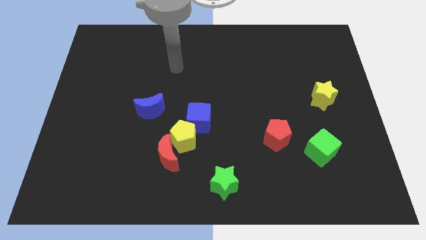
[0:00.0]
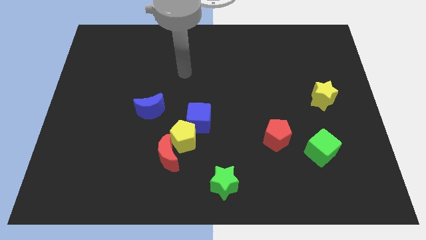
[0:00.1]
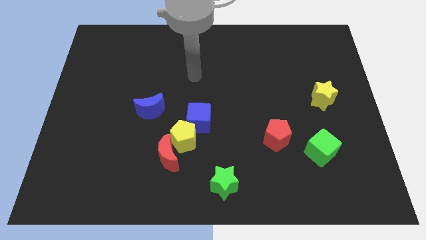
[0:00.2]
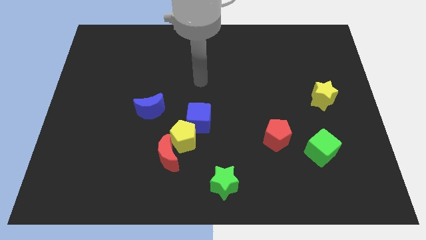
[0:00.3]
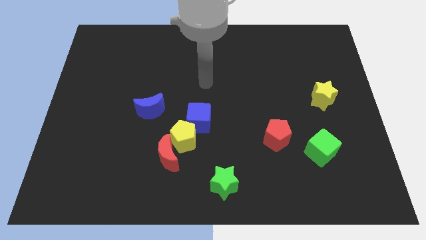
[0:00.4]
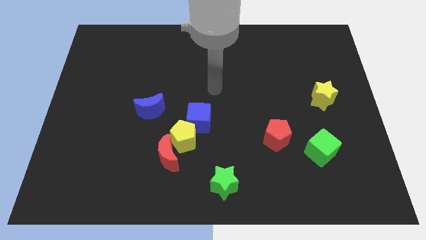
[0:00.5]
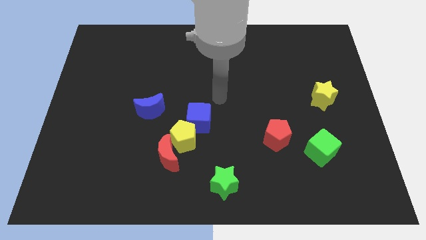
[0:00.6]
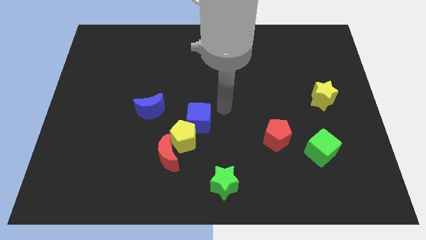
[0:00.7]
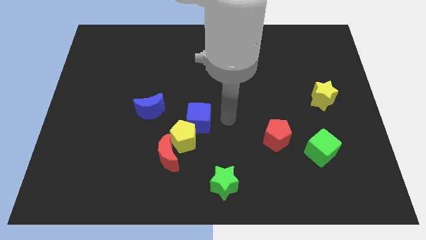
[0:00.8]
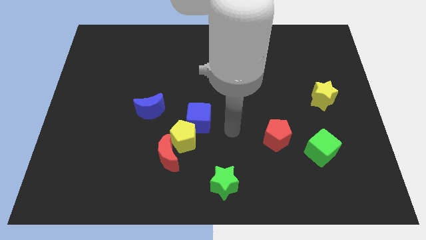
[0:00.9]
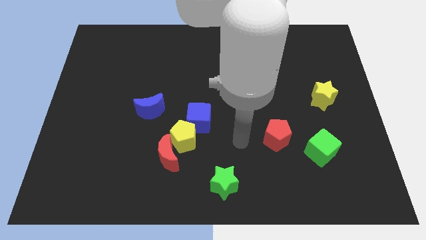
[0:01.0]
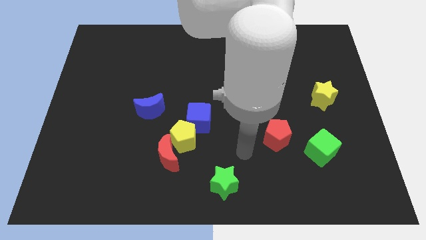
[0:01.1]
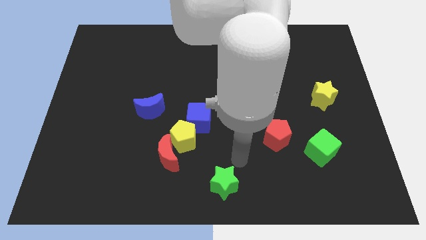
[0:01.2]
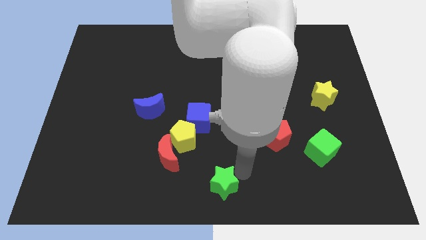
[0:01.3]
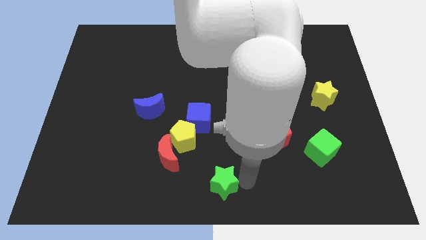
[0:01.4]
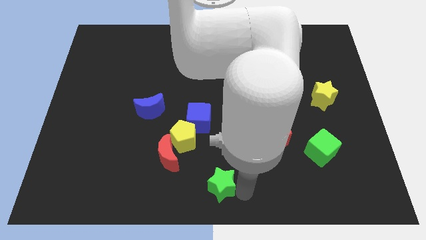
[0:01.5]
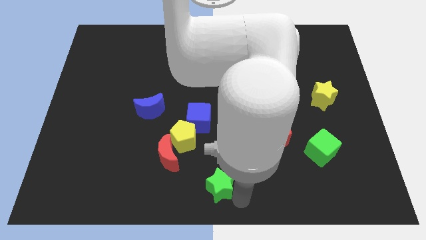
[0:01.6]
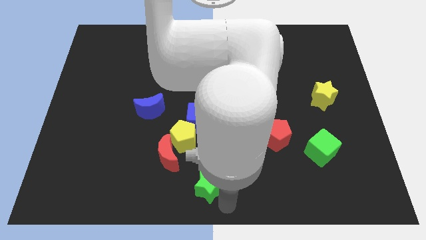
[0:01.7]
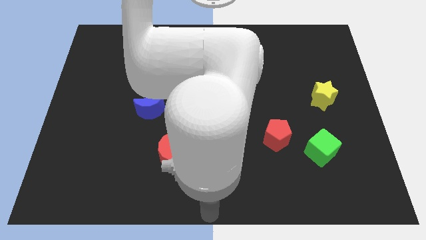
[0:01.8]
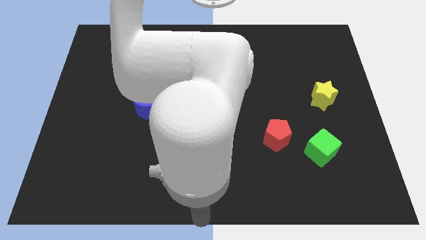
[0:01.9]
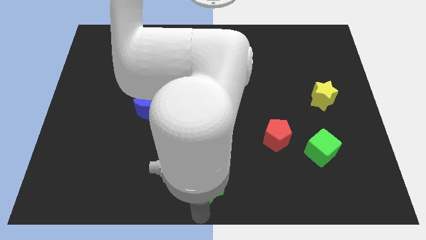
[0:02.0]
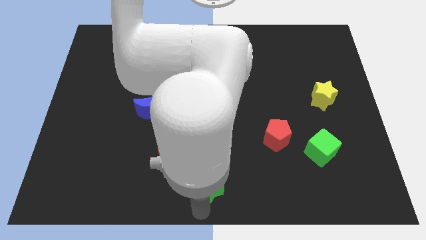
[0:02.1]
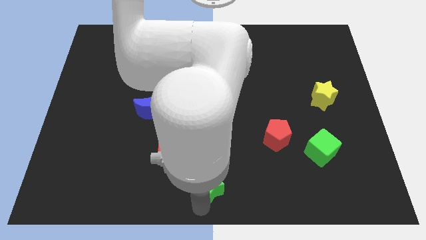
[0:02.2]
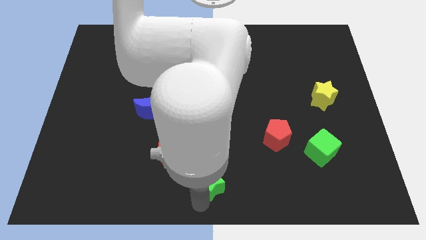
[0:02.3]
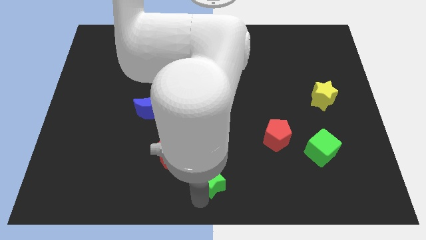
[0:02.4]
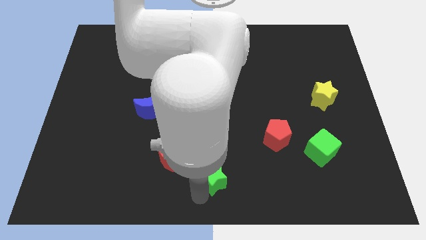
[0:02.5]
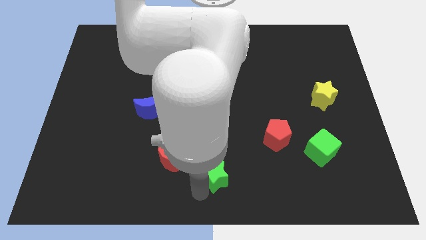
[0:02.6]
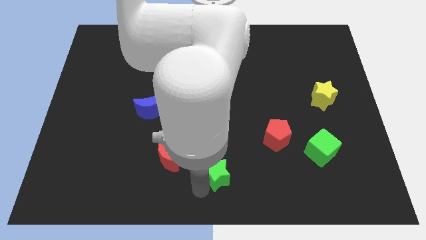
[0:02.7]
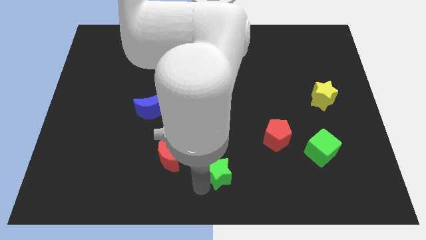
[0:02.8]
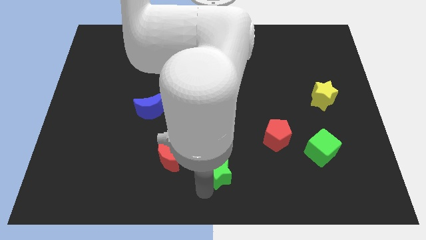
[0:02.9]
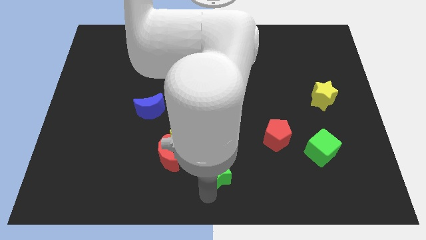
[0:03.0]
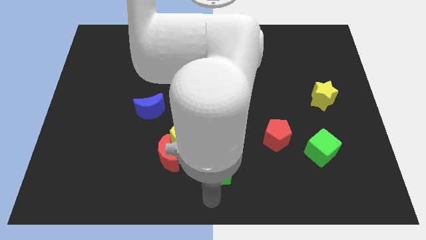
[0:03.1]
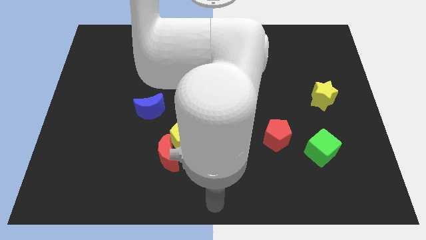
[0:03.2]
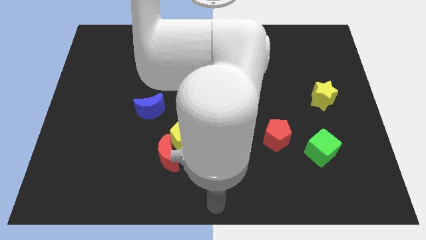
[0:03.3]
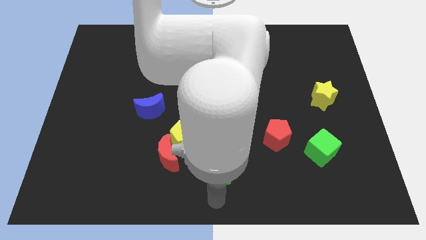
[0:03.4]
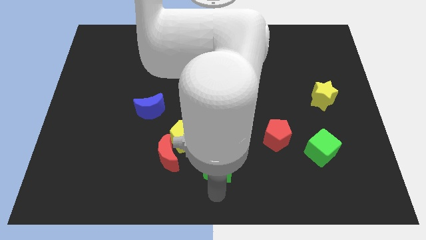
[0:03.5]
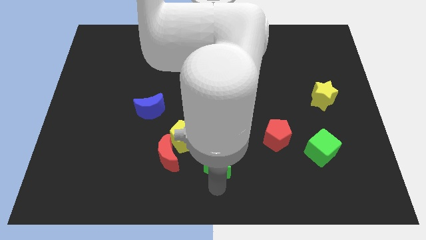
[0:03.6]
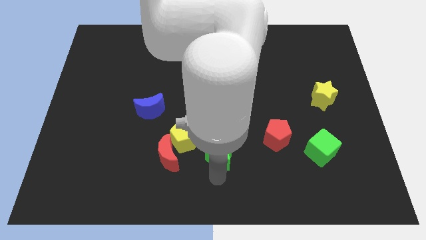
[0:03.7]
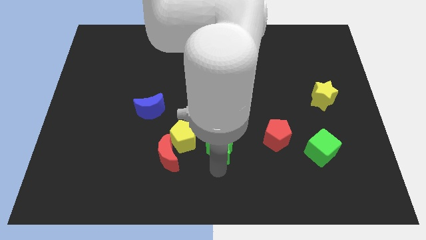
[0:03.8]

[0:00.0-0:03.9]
slide the green star a little upwards

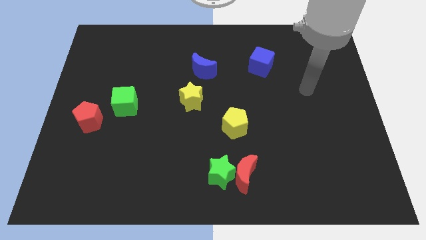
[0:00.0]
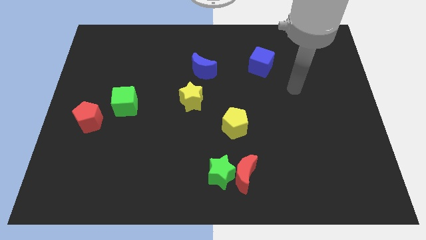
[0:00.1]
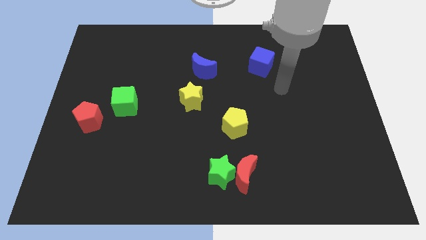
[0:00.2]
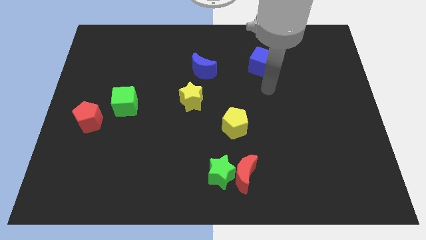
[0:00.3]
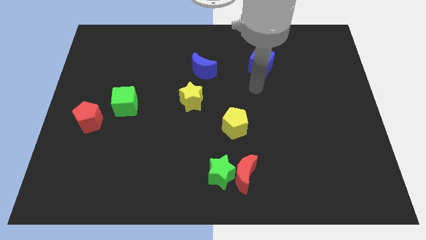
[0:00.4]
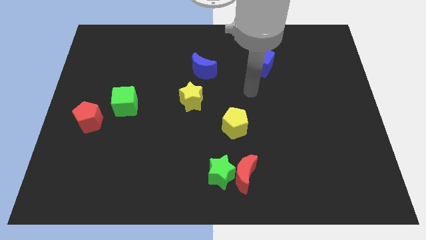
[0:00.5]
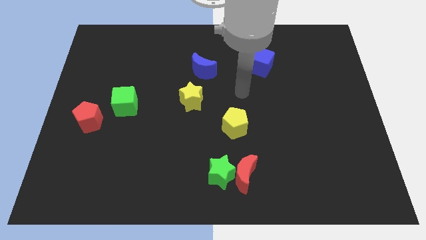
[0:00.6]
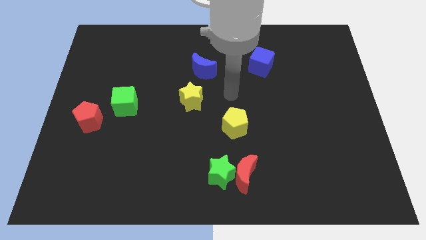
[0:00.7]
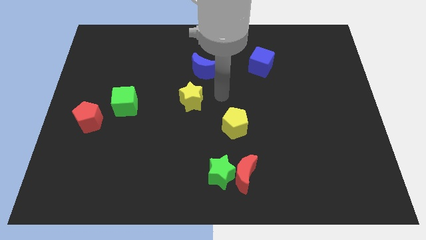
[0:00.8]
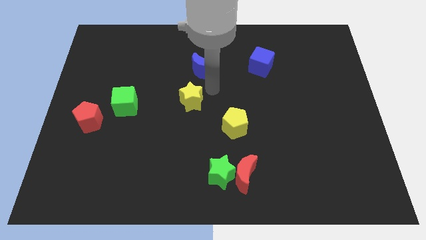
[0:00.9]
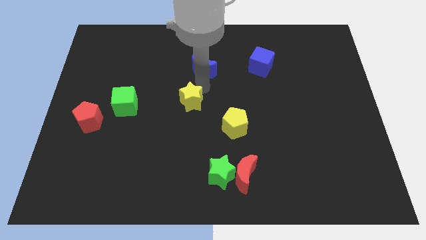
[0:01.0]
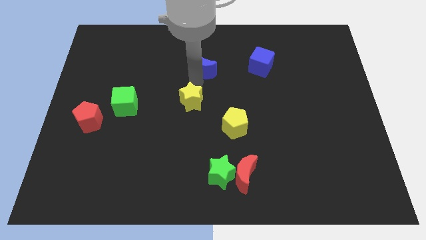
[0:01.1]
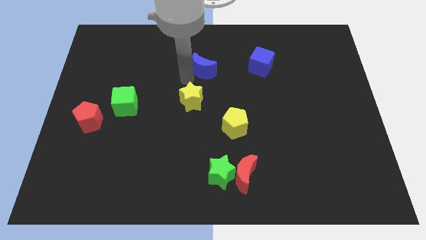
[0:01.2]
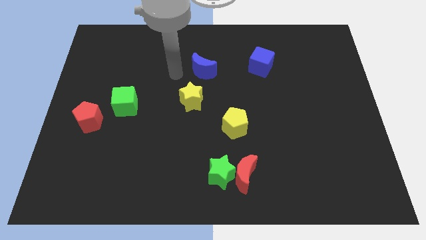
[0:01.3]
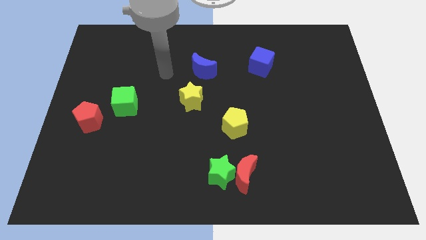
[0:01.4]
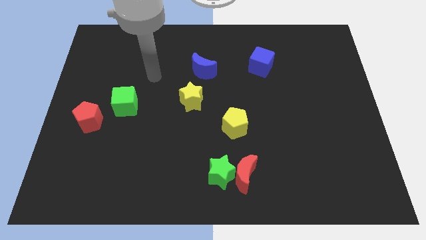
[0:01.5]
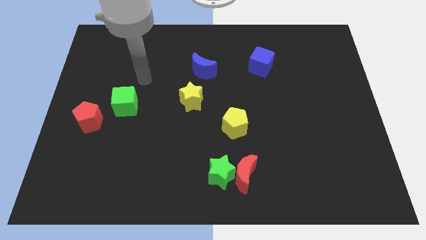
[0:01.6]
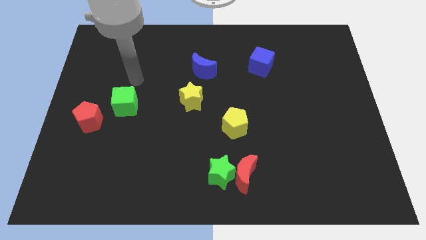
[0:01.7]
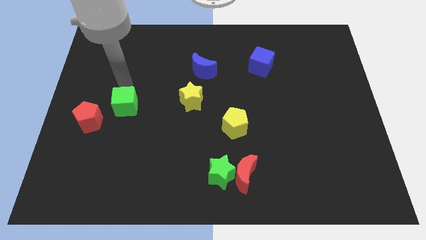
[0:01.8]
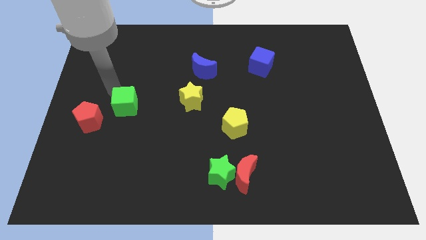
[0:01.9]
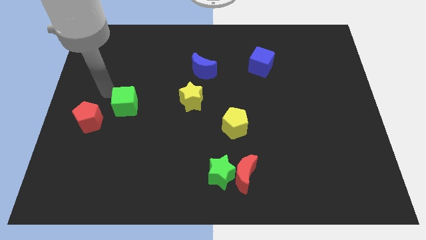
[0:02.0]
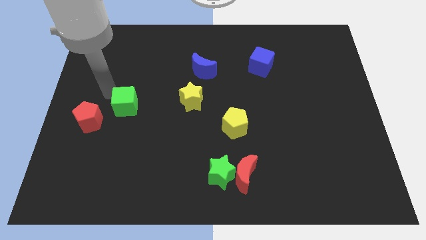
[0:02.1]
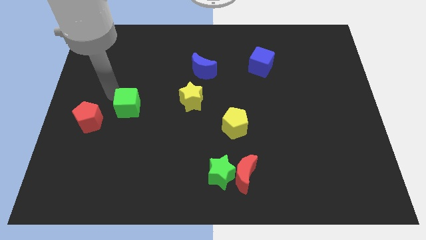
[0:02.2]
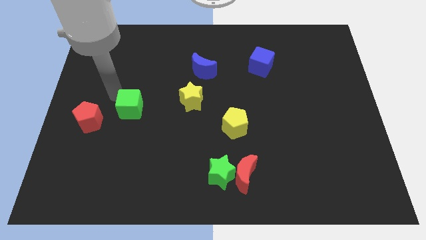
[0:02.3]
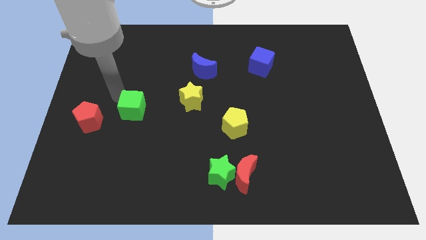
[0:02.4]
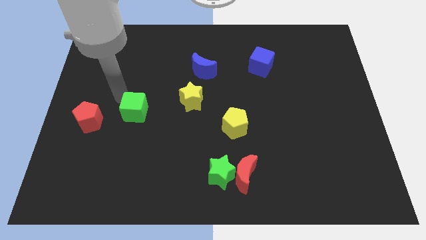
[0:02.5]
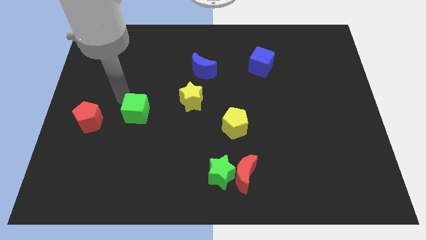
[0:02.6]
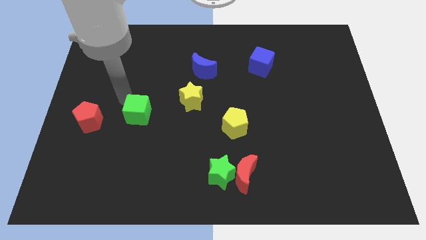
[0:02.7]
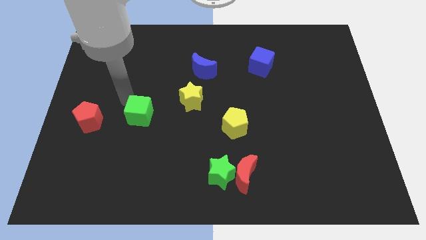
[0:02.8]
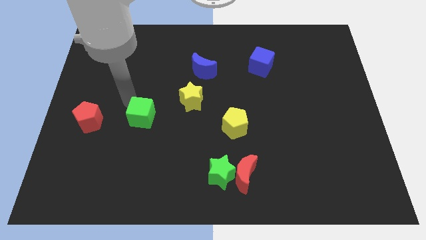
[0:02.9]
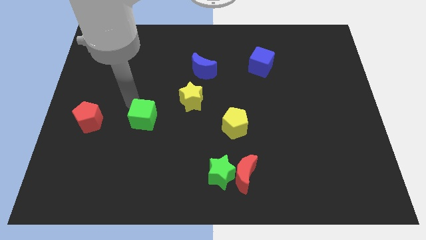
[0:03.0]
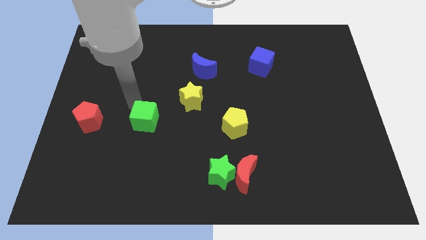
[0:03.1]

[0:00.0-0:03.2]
slide the green cube somewhat downwards and then to the right

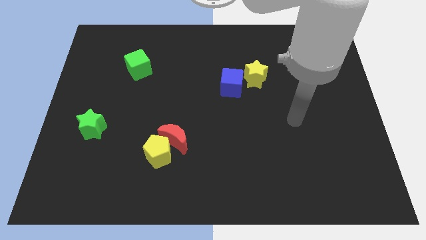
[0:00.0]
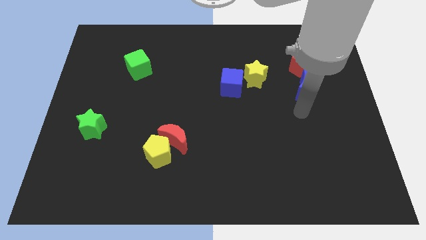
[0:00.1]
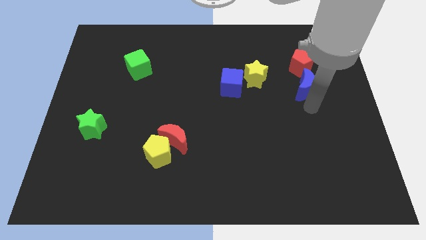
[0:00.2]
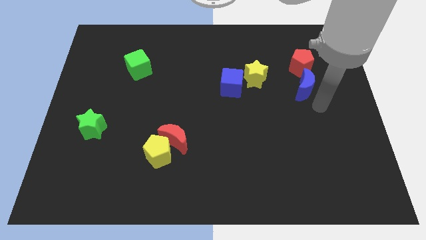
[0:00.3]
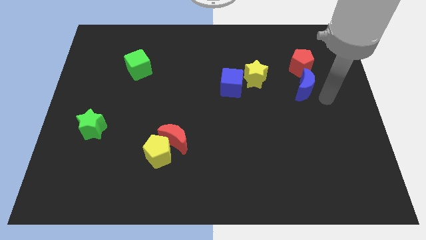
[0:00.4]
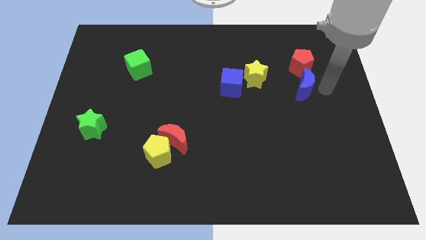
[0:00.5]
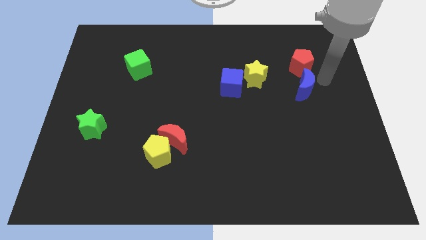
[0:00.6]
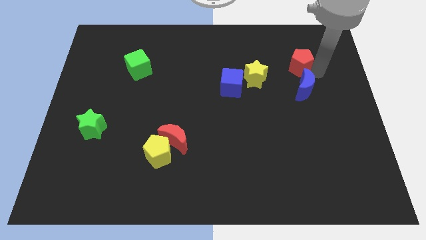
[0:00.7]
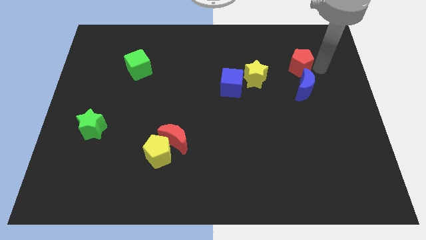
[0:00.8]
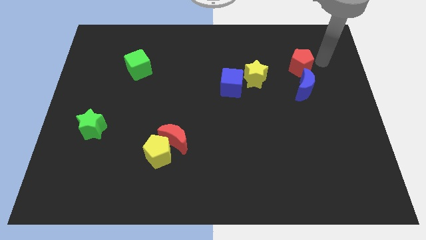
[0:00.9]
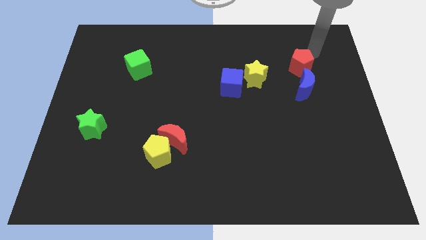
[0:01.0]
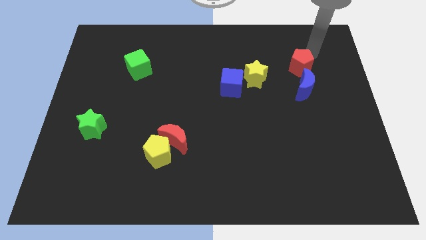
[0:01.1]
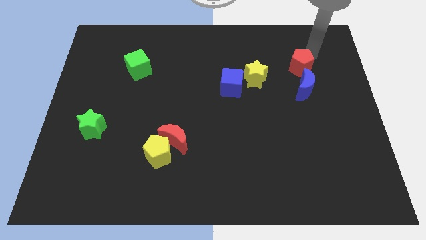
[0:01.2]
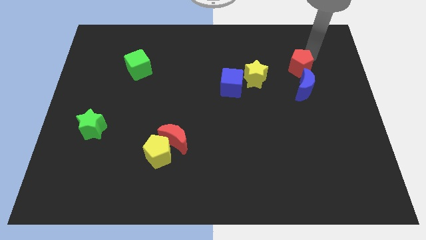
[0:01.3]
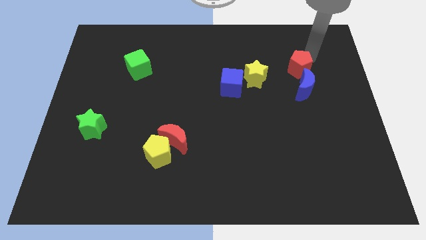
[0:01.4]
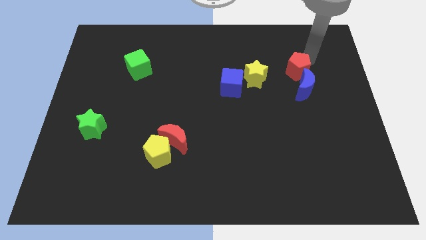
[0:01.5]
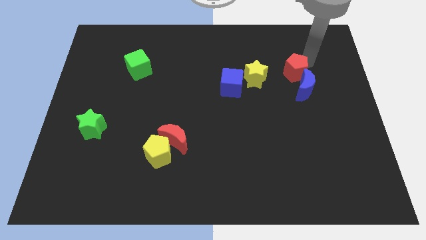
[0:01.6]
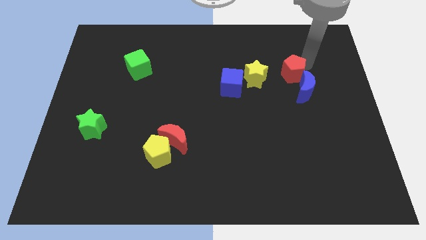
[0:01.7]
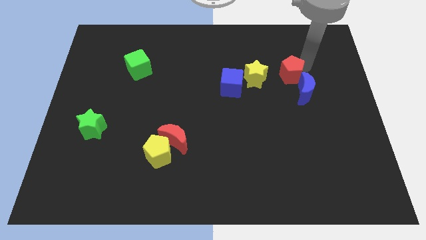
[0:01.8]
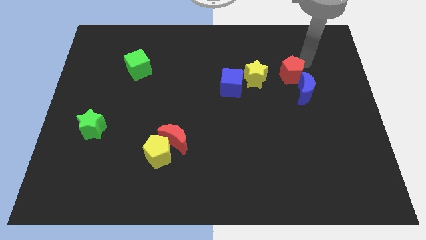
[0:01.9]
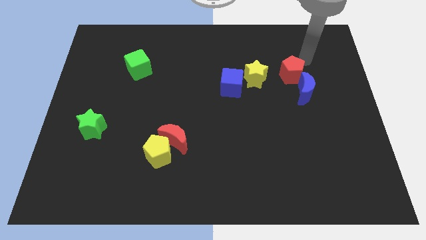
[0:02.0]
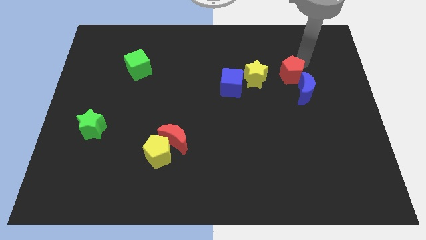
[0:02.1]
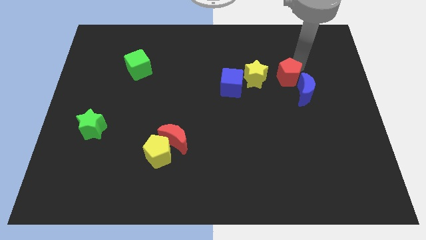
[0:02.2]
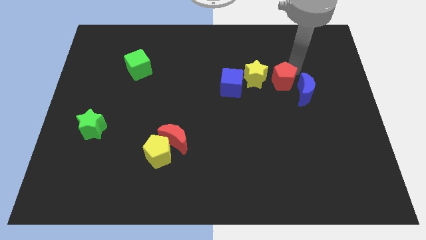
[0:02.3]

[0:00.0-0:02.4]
slide the red pentagon somewhat downwards and to the left
